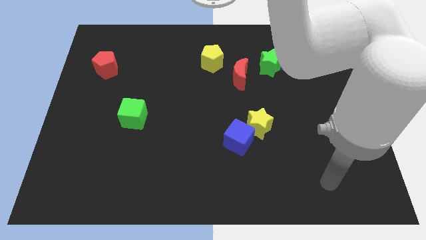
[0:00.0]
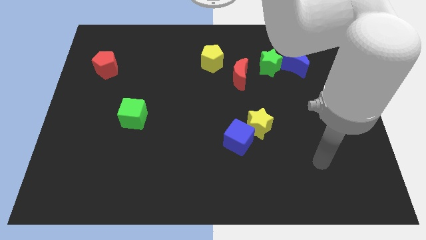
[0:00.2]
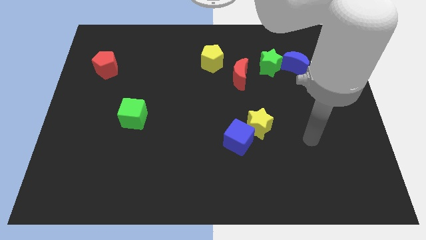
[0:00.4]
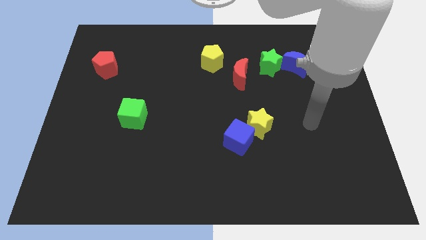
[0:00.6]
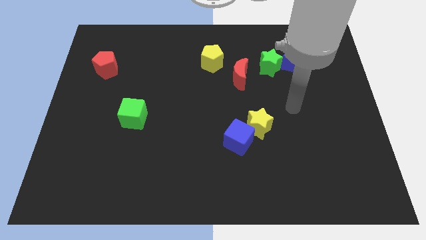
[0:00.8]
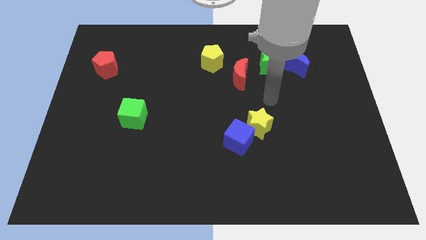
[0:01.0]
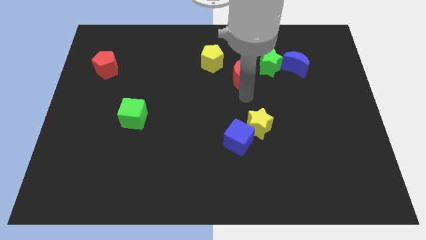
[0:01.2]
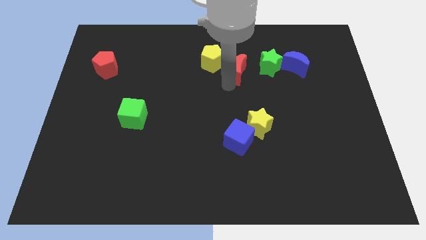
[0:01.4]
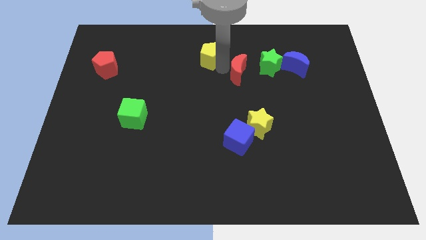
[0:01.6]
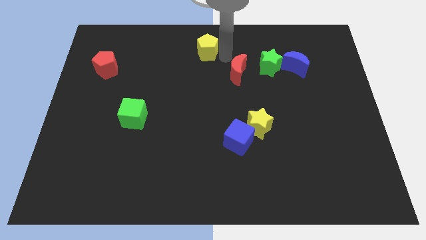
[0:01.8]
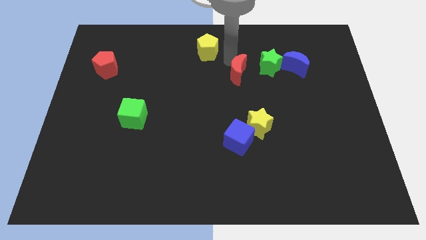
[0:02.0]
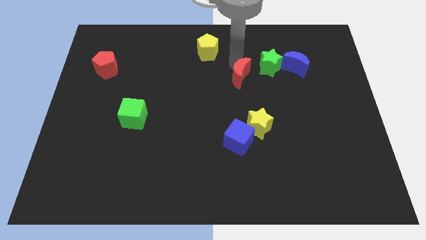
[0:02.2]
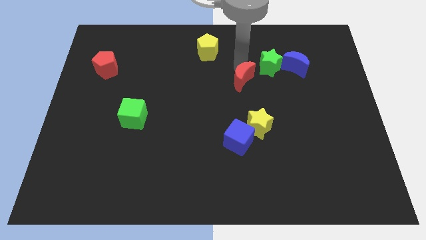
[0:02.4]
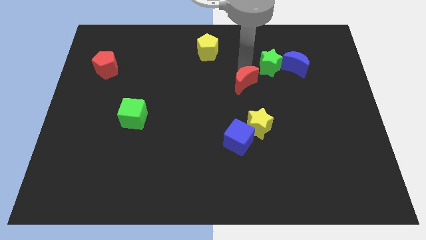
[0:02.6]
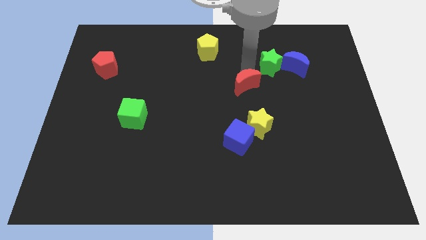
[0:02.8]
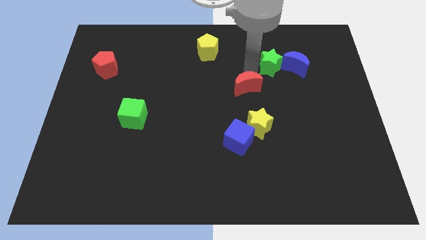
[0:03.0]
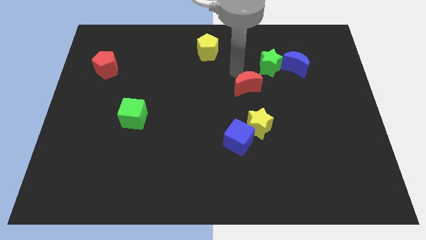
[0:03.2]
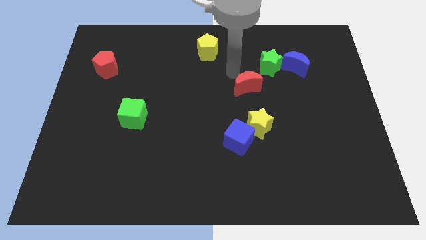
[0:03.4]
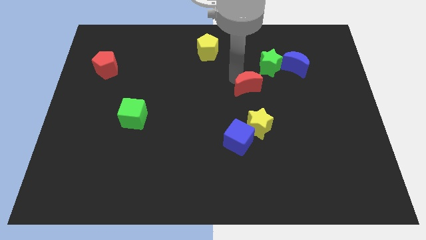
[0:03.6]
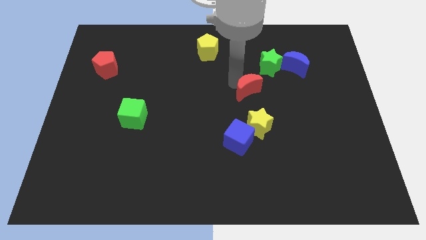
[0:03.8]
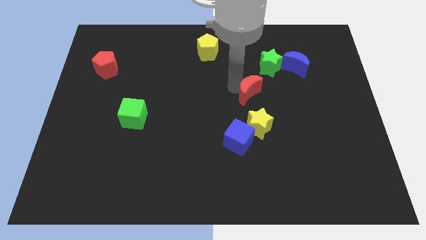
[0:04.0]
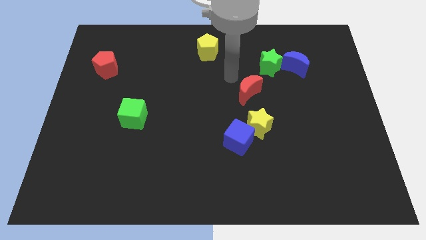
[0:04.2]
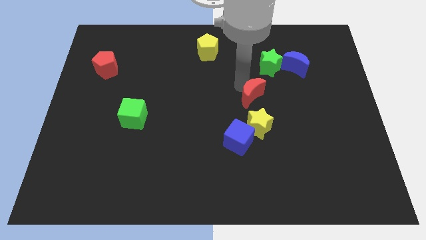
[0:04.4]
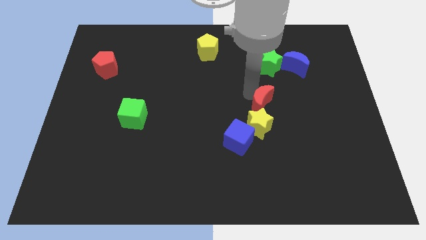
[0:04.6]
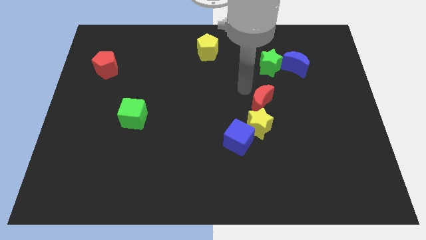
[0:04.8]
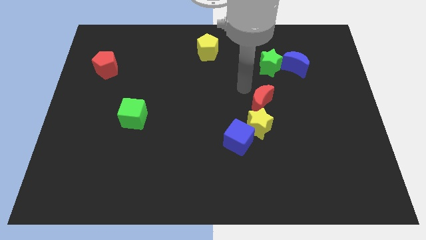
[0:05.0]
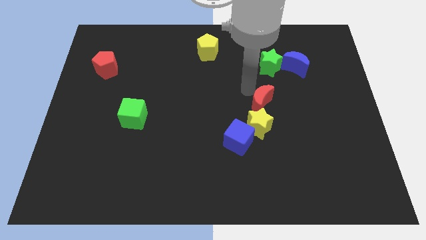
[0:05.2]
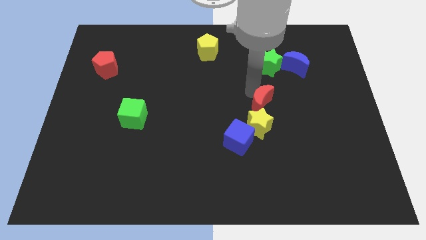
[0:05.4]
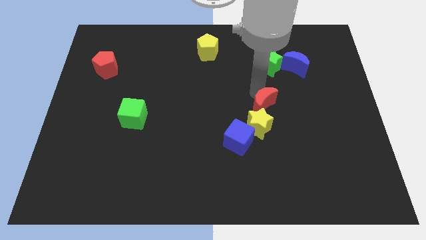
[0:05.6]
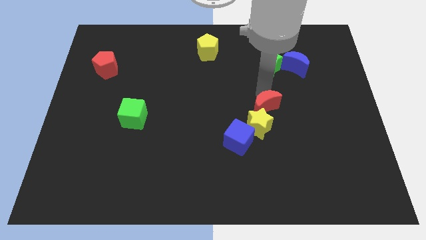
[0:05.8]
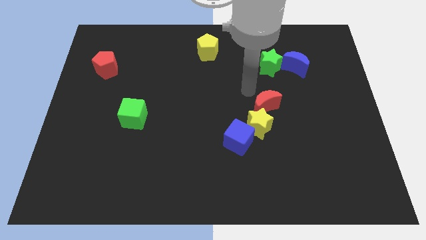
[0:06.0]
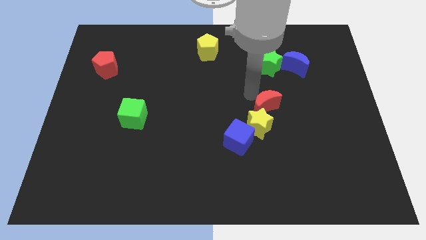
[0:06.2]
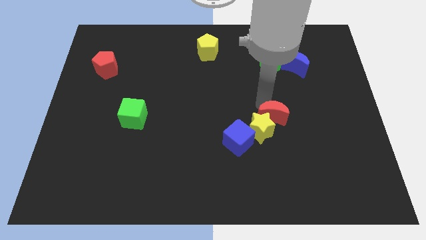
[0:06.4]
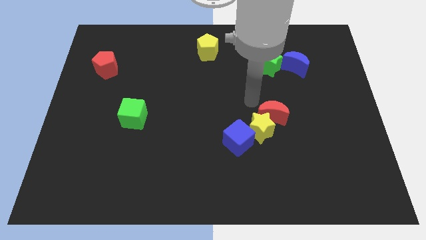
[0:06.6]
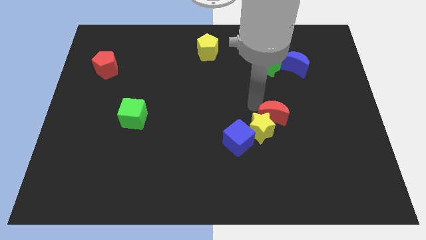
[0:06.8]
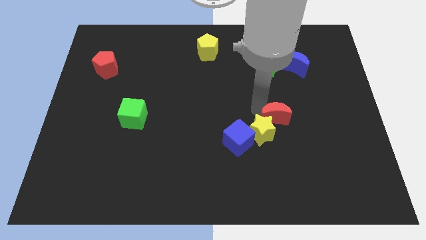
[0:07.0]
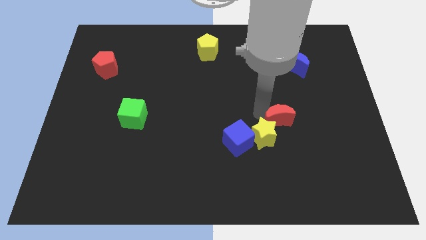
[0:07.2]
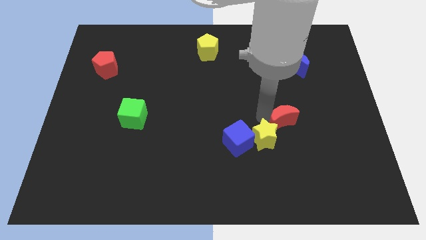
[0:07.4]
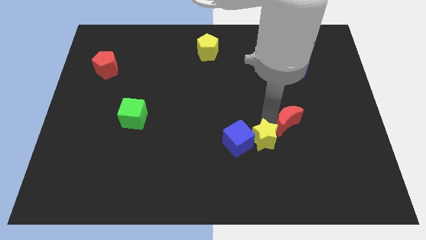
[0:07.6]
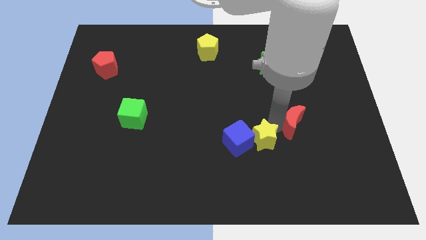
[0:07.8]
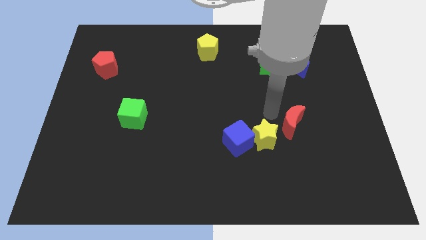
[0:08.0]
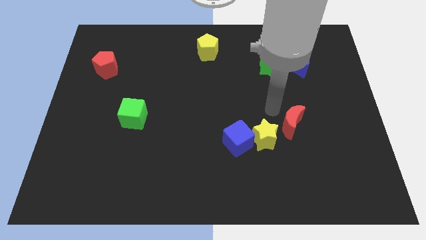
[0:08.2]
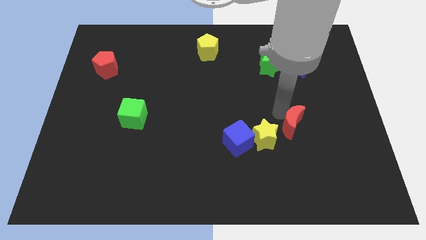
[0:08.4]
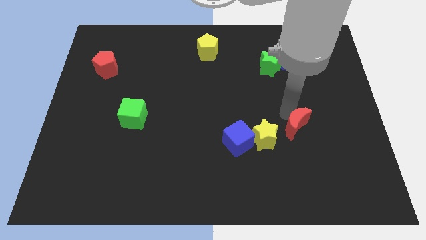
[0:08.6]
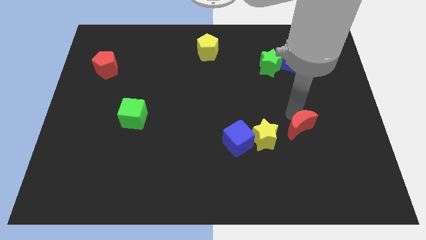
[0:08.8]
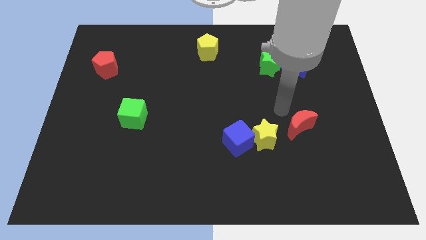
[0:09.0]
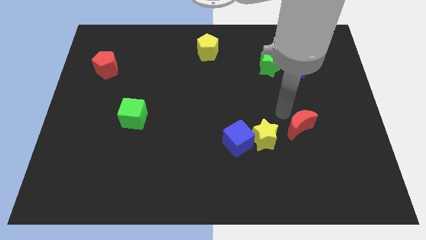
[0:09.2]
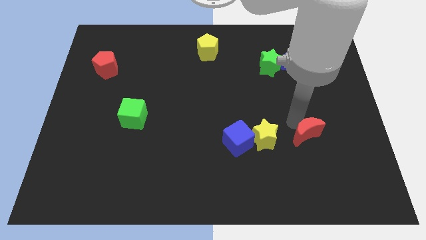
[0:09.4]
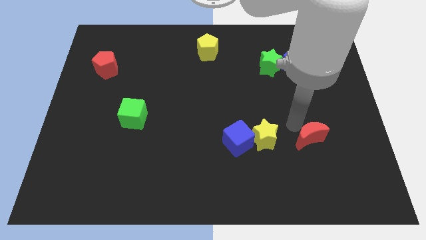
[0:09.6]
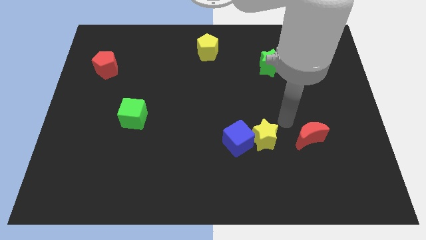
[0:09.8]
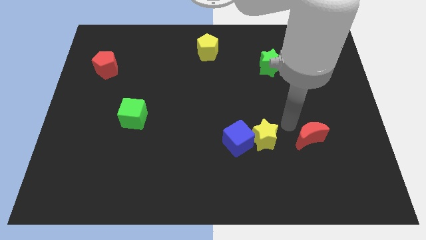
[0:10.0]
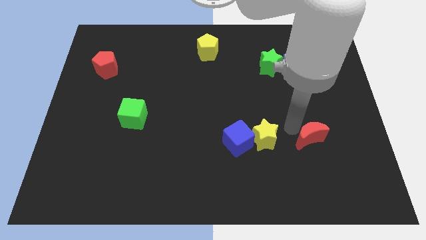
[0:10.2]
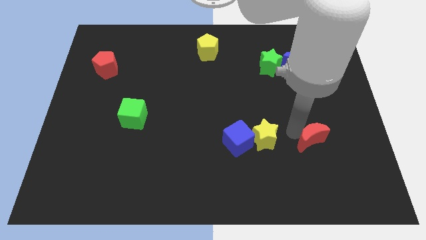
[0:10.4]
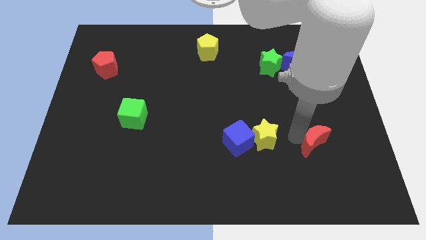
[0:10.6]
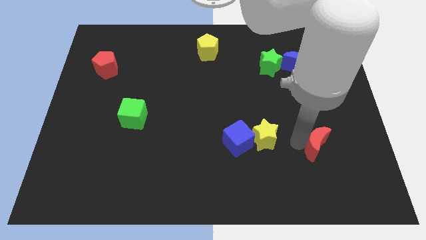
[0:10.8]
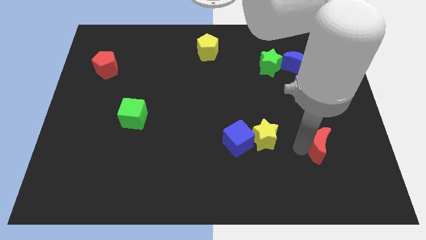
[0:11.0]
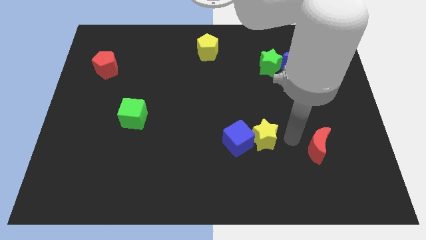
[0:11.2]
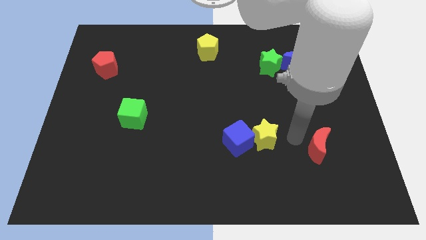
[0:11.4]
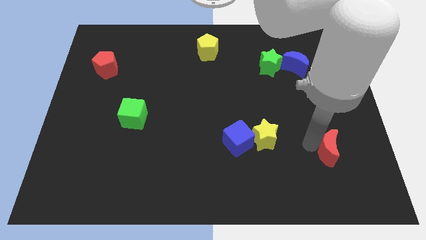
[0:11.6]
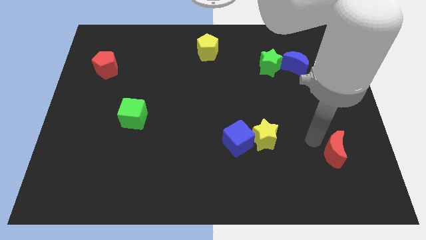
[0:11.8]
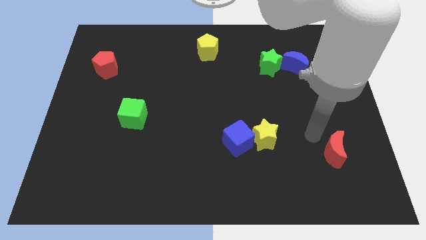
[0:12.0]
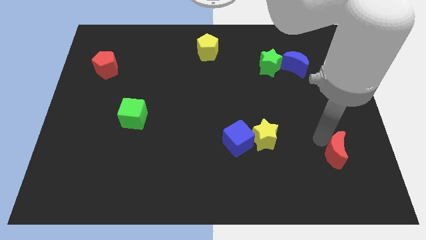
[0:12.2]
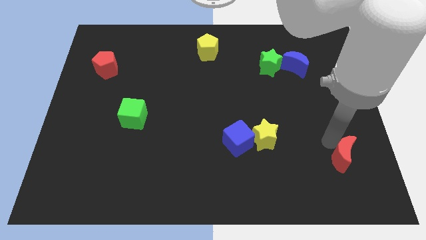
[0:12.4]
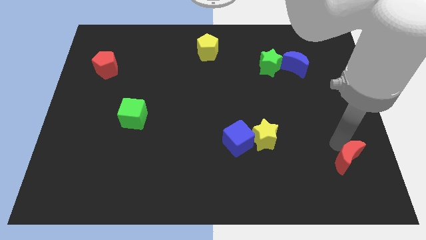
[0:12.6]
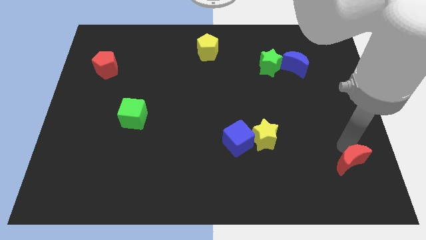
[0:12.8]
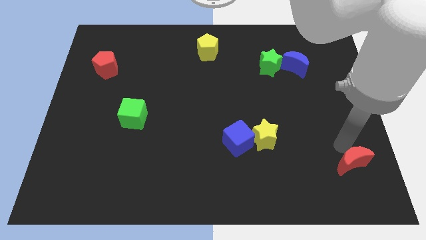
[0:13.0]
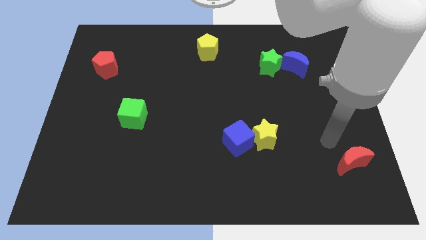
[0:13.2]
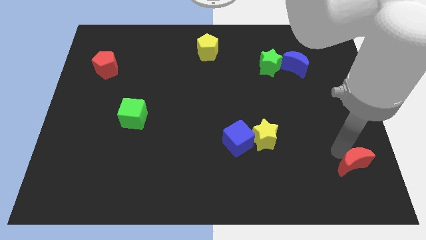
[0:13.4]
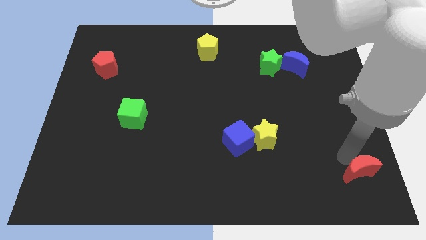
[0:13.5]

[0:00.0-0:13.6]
move the red moon to the bottom right

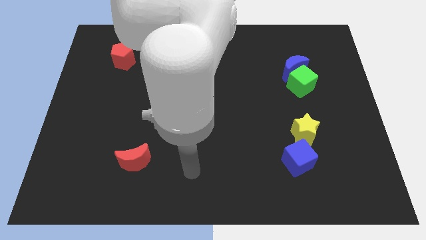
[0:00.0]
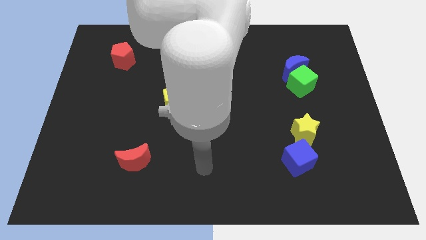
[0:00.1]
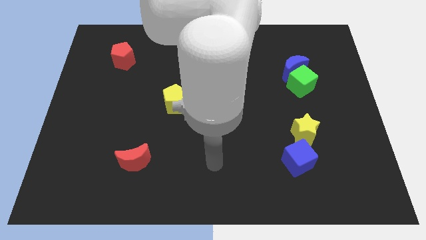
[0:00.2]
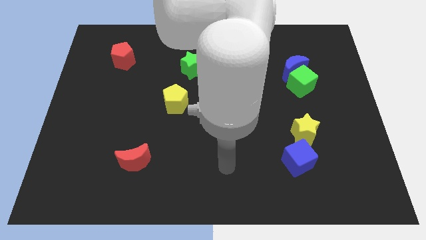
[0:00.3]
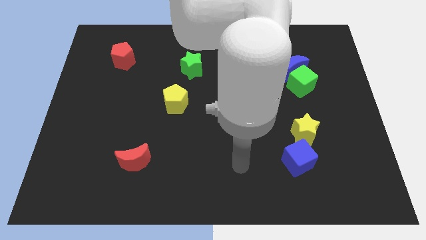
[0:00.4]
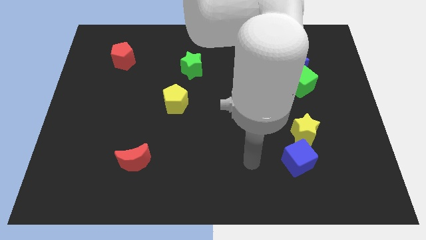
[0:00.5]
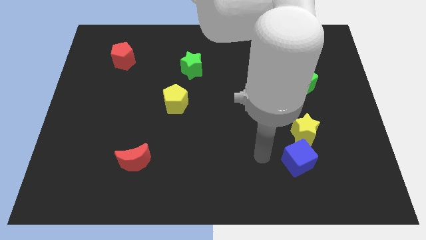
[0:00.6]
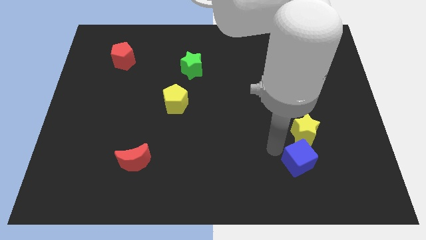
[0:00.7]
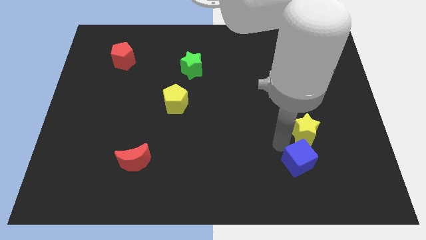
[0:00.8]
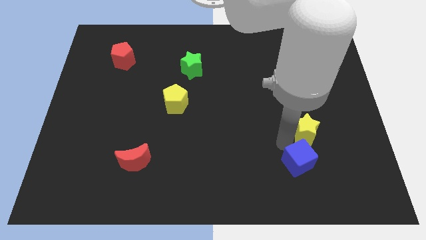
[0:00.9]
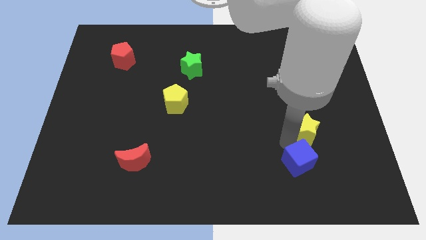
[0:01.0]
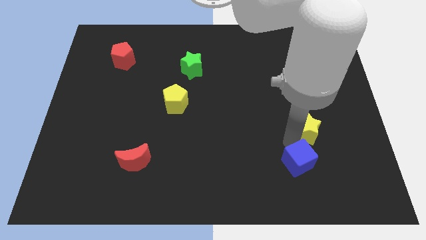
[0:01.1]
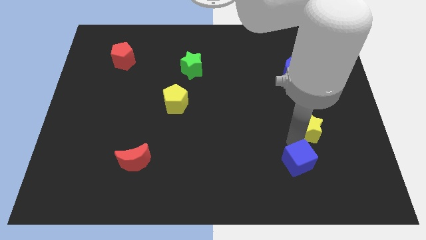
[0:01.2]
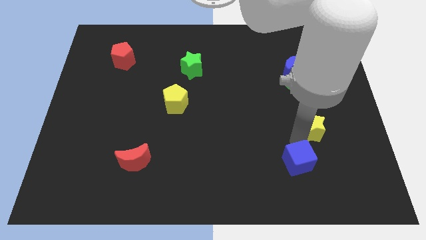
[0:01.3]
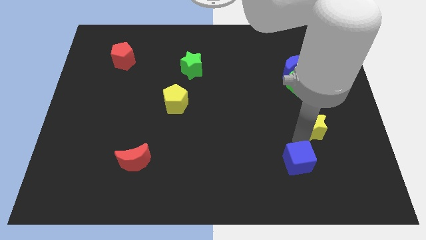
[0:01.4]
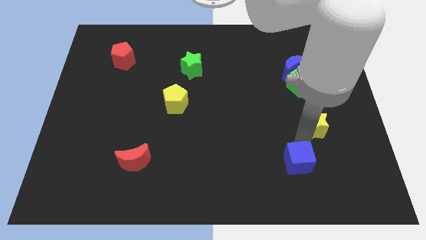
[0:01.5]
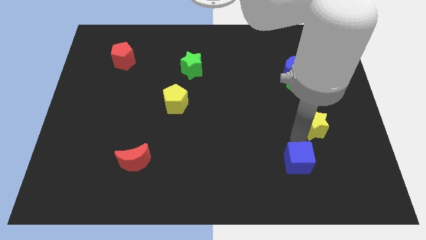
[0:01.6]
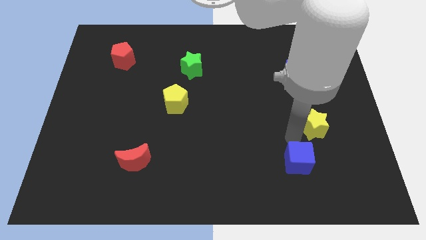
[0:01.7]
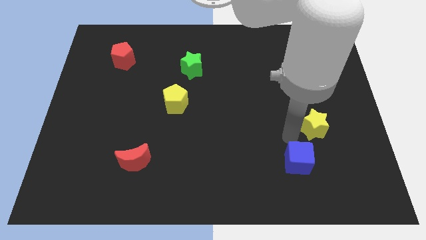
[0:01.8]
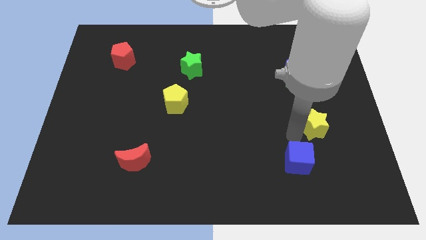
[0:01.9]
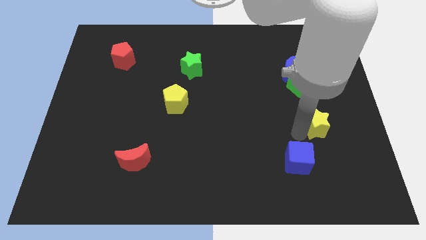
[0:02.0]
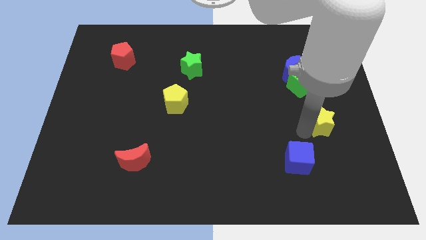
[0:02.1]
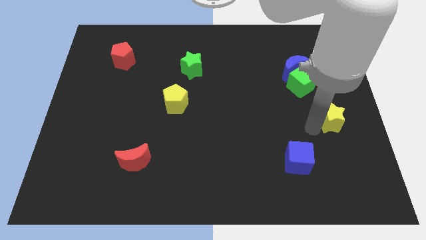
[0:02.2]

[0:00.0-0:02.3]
push the yellow star to the right side of the board
